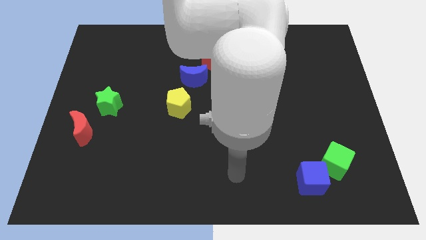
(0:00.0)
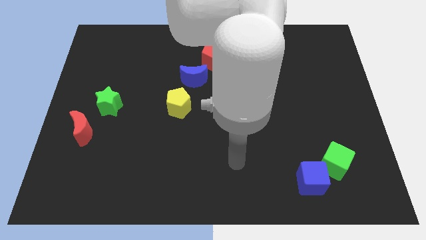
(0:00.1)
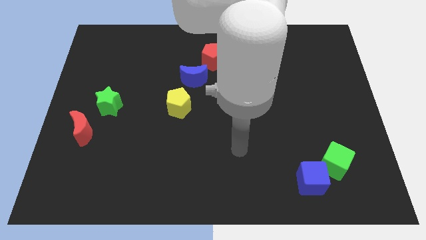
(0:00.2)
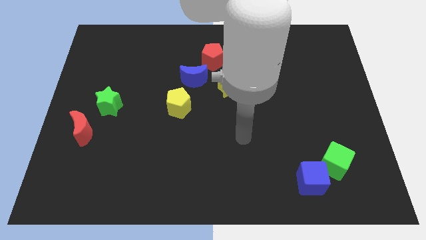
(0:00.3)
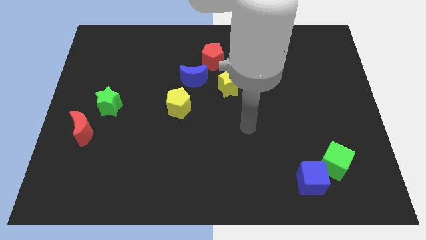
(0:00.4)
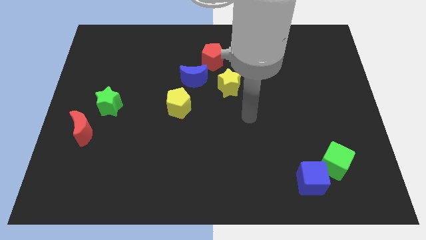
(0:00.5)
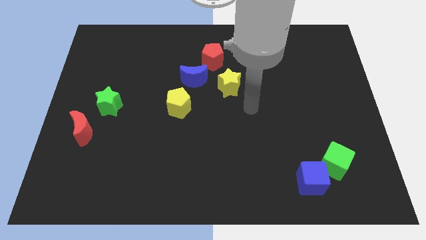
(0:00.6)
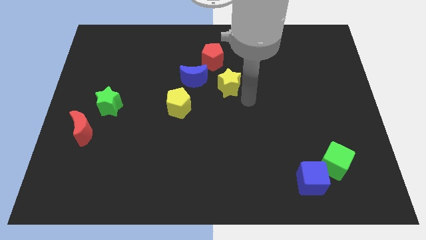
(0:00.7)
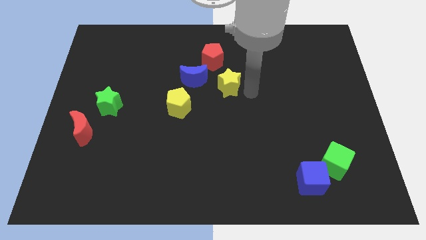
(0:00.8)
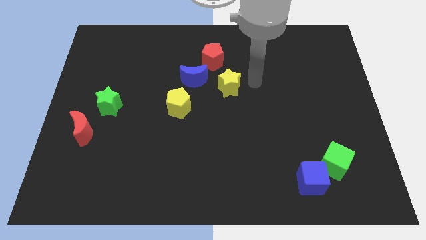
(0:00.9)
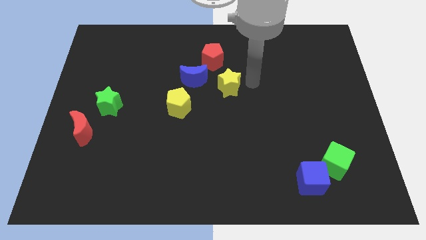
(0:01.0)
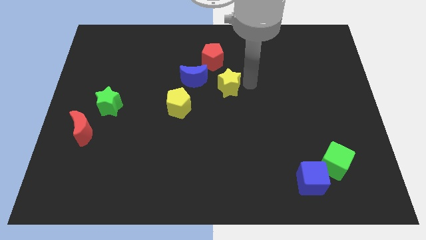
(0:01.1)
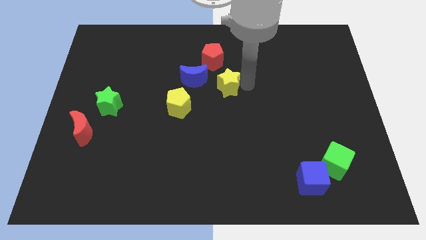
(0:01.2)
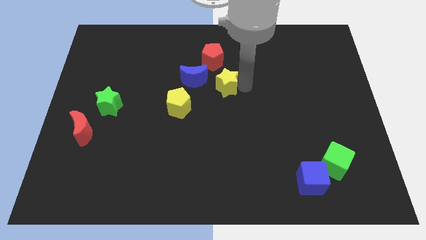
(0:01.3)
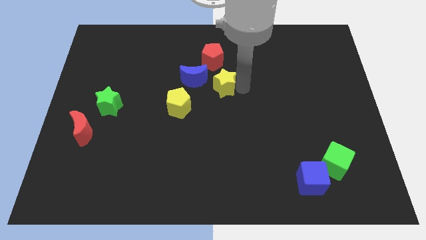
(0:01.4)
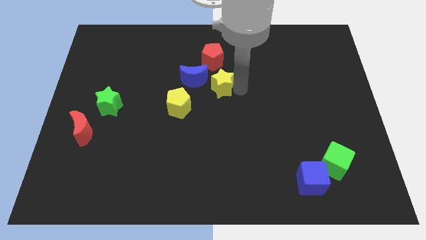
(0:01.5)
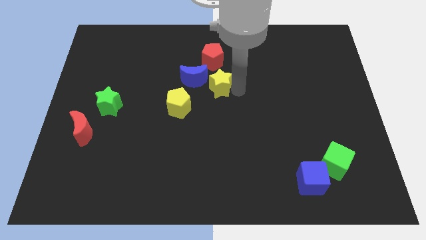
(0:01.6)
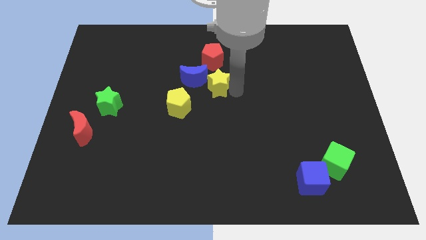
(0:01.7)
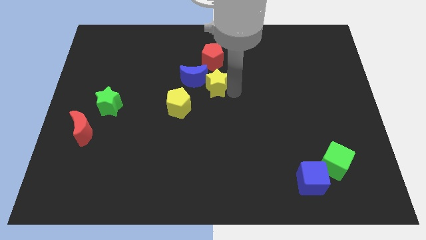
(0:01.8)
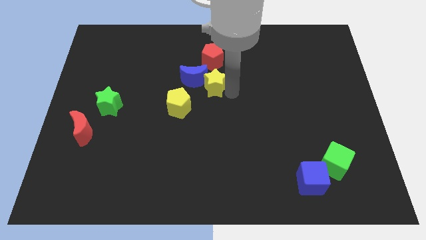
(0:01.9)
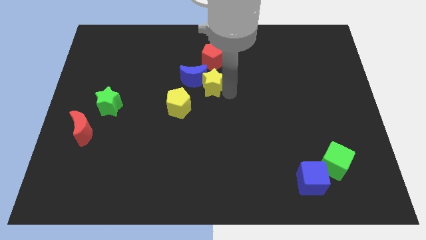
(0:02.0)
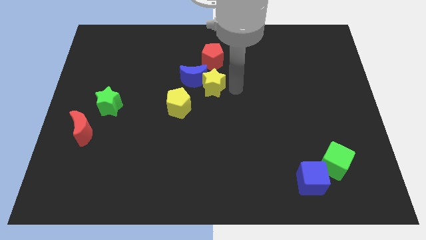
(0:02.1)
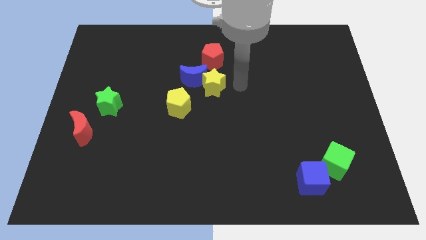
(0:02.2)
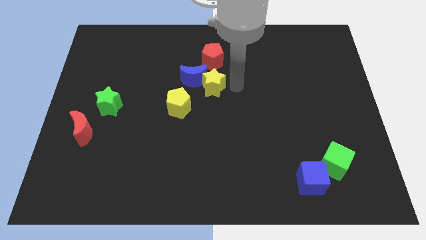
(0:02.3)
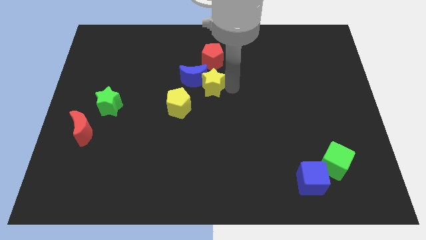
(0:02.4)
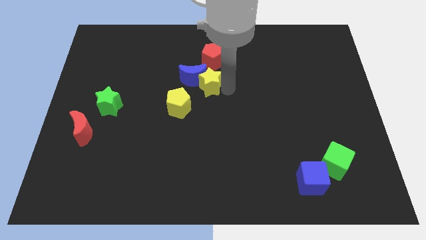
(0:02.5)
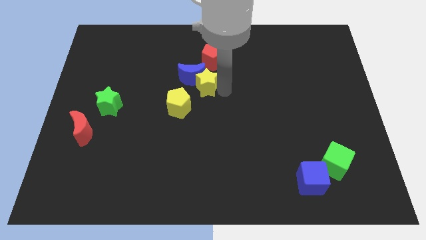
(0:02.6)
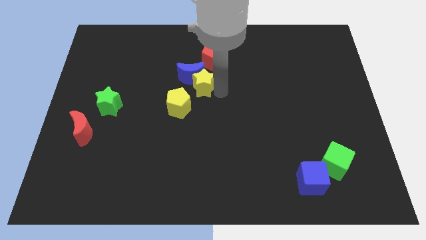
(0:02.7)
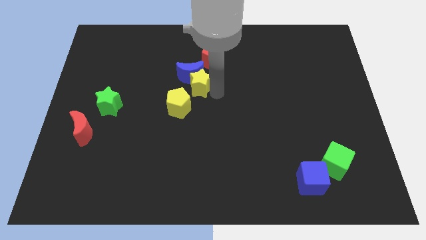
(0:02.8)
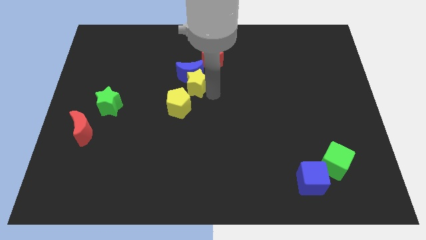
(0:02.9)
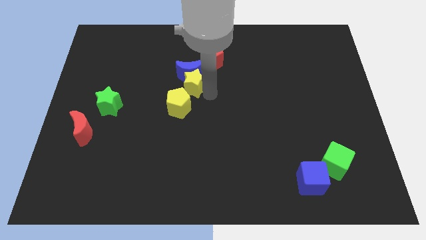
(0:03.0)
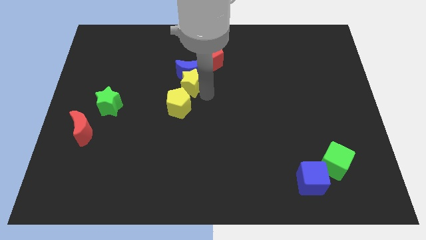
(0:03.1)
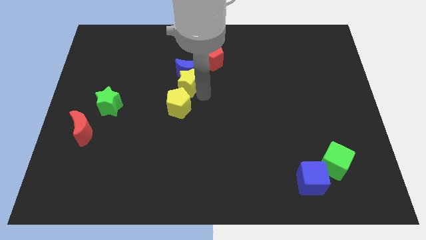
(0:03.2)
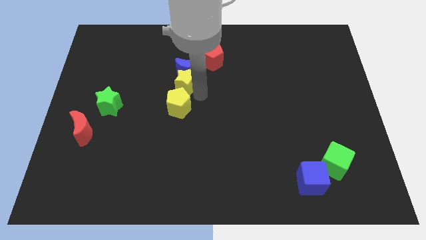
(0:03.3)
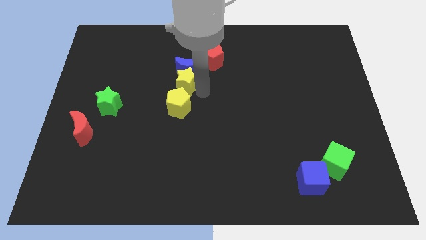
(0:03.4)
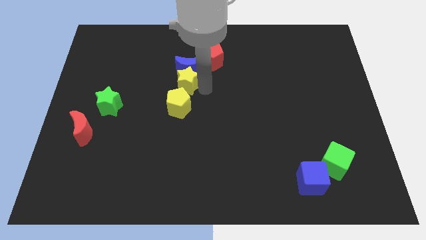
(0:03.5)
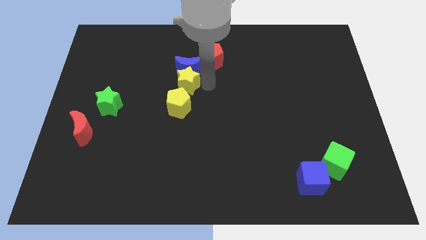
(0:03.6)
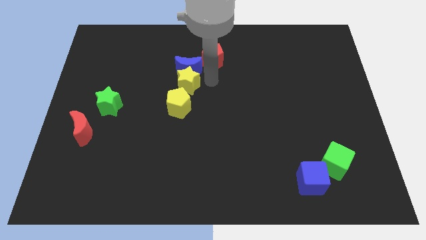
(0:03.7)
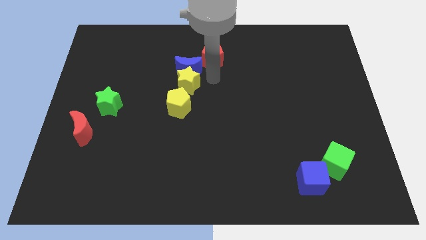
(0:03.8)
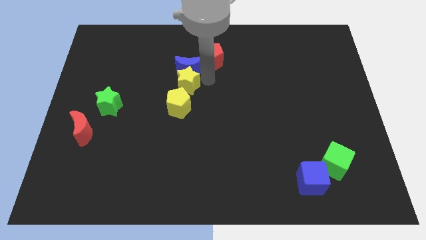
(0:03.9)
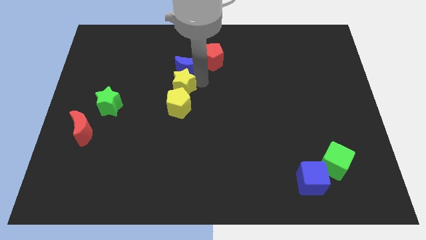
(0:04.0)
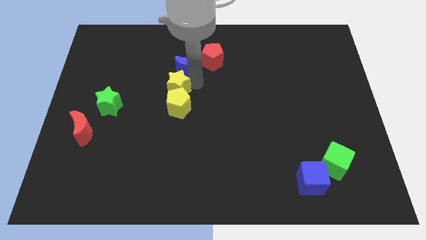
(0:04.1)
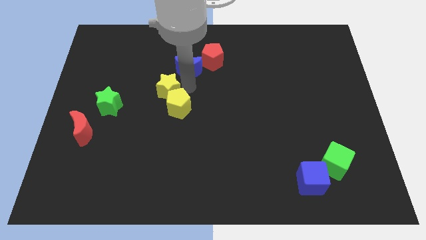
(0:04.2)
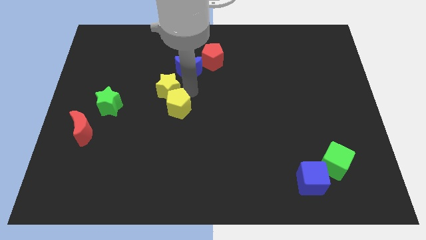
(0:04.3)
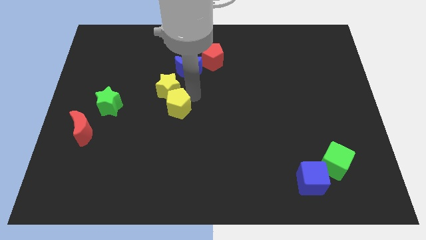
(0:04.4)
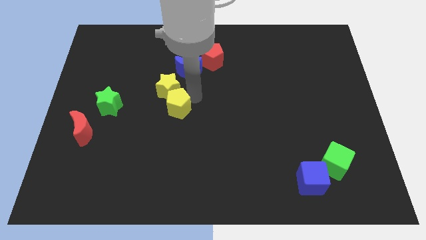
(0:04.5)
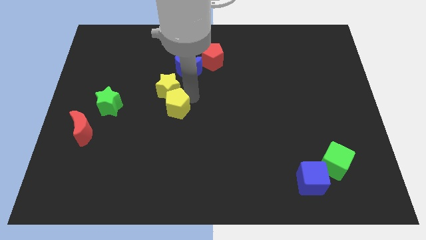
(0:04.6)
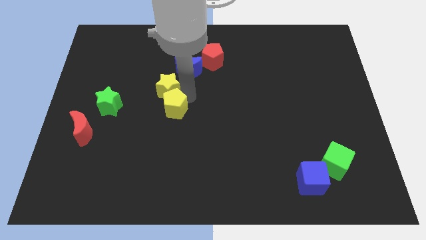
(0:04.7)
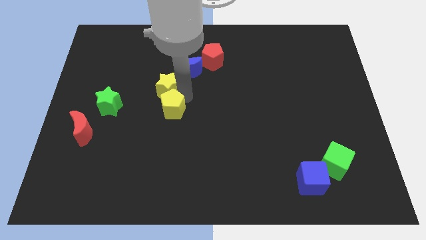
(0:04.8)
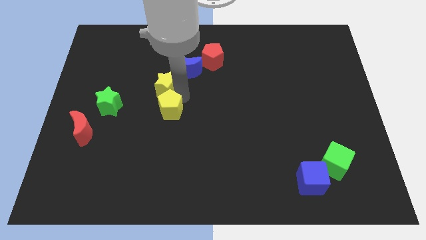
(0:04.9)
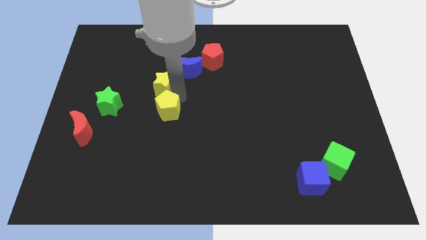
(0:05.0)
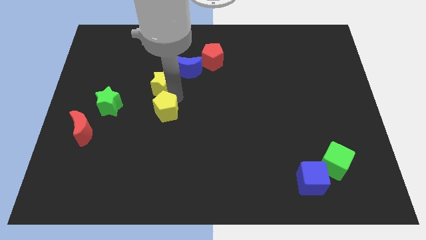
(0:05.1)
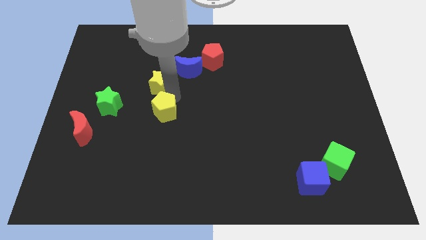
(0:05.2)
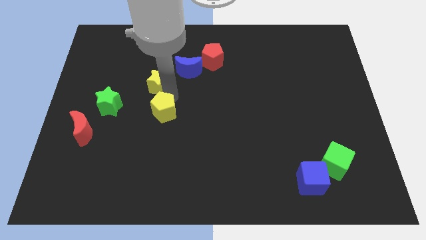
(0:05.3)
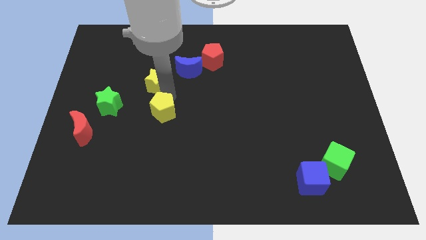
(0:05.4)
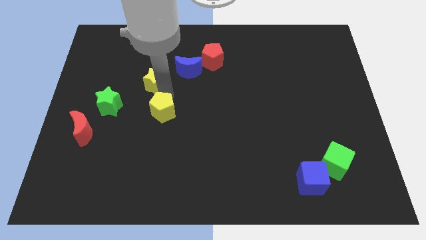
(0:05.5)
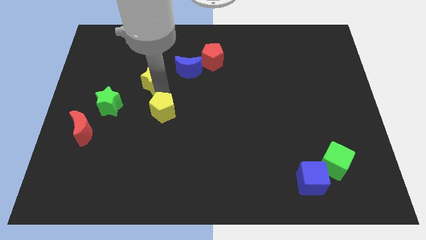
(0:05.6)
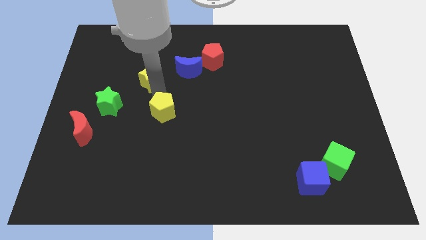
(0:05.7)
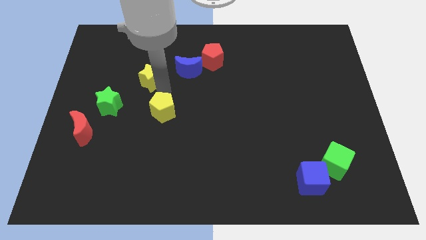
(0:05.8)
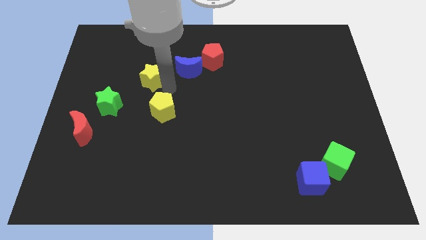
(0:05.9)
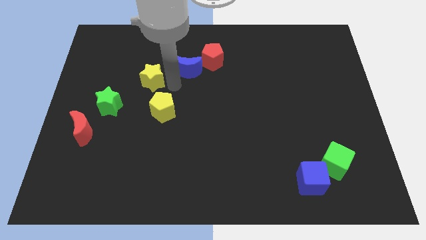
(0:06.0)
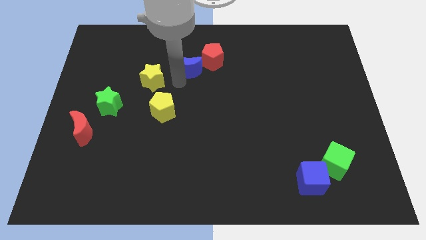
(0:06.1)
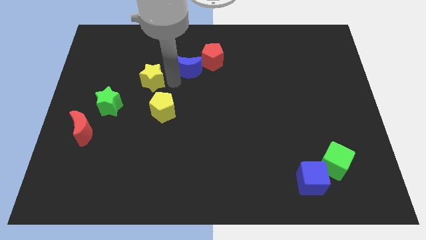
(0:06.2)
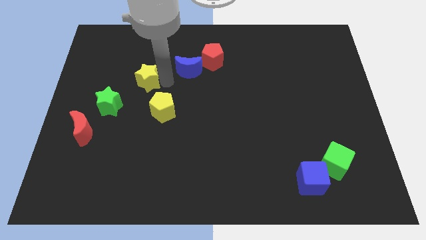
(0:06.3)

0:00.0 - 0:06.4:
move the yellow star to the left

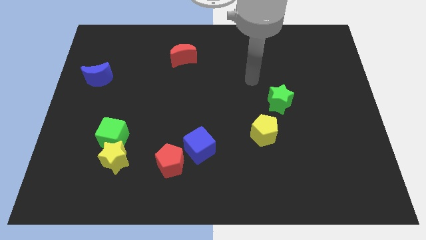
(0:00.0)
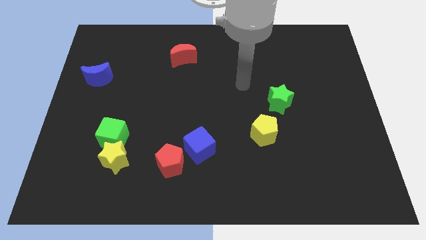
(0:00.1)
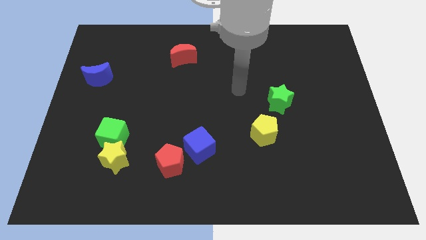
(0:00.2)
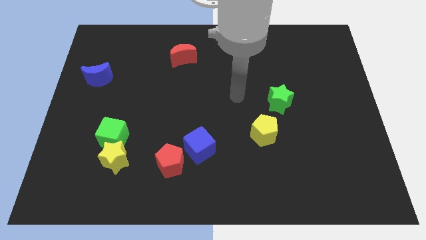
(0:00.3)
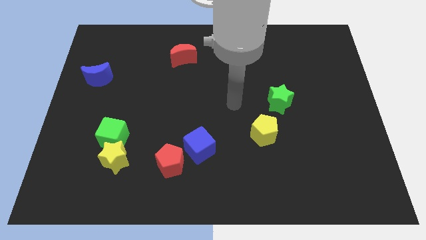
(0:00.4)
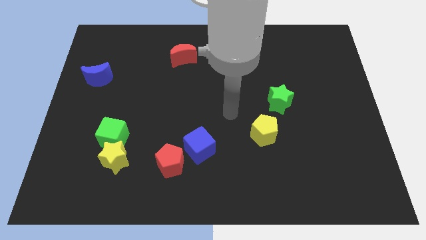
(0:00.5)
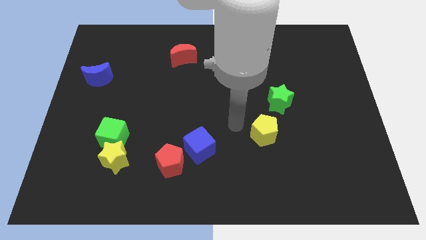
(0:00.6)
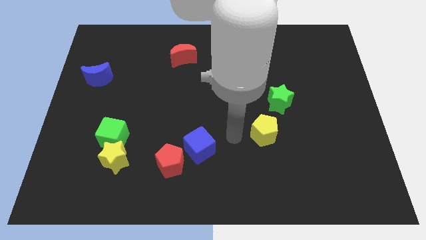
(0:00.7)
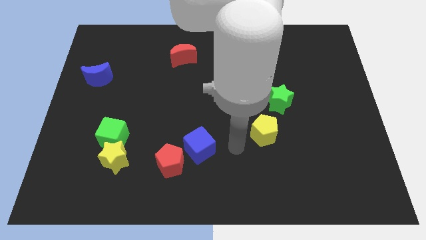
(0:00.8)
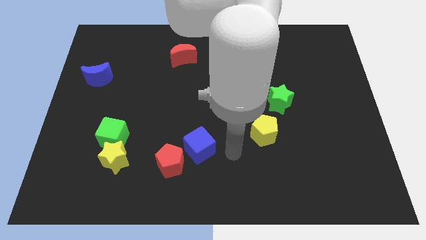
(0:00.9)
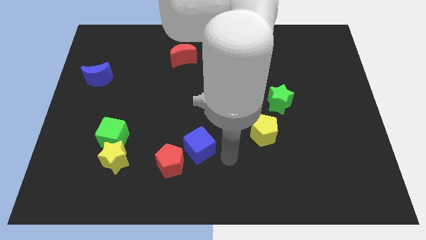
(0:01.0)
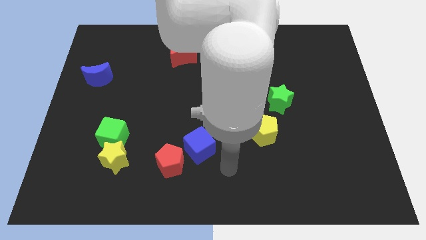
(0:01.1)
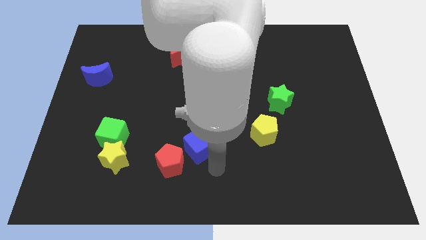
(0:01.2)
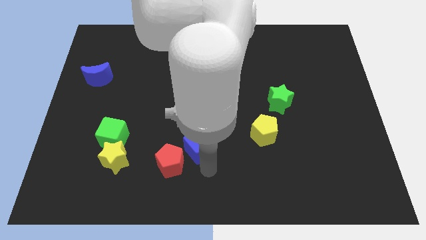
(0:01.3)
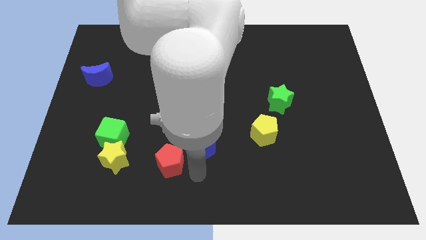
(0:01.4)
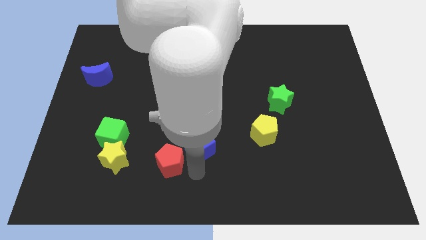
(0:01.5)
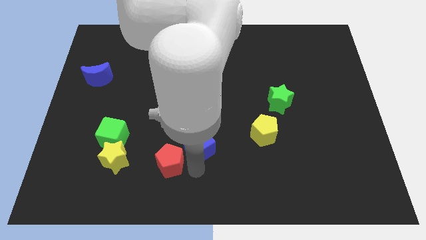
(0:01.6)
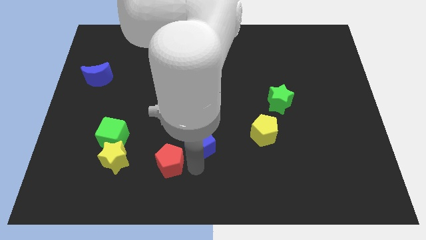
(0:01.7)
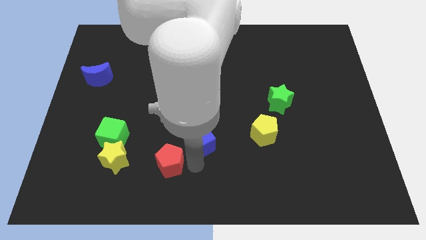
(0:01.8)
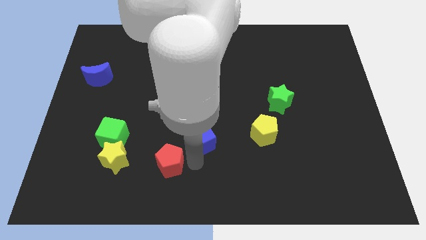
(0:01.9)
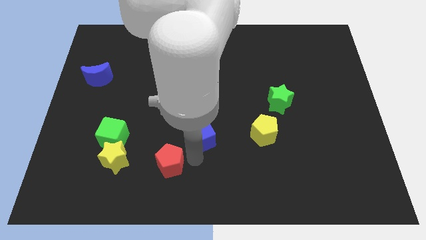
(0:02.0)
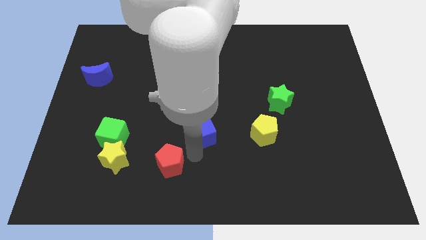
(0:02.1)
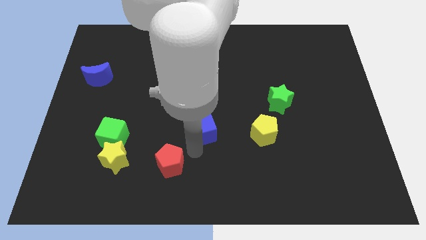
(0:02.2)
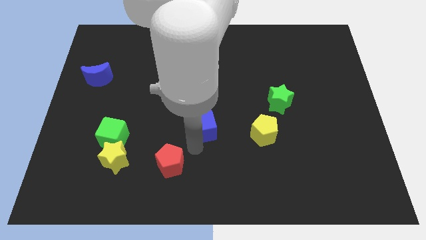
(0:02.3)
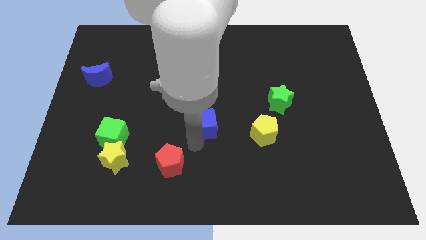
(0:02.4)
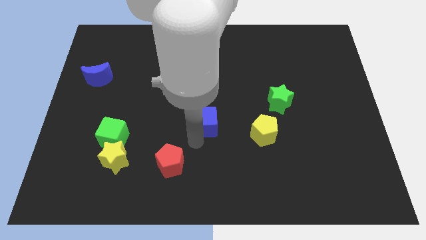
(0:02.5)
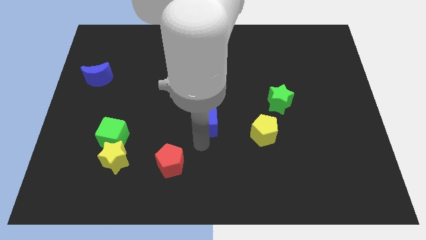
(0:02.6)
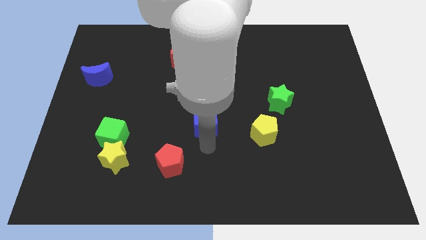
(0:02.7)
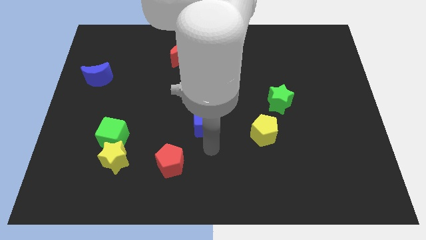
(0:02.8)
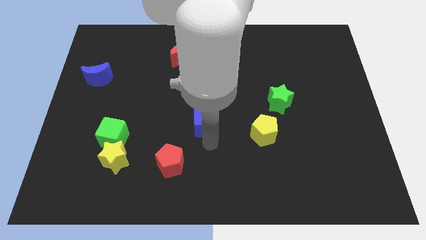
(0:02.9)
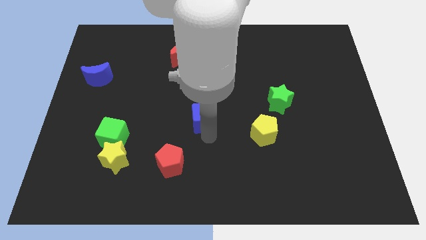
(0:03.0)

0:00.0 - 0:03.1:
push the blue cube somewhat up
